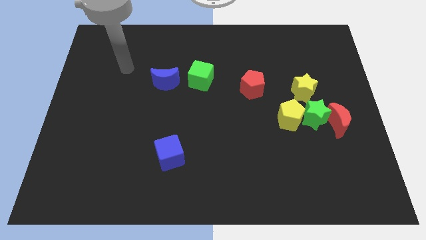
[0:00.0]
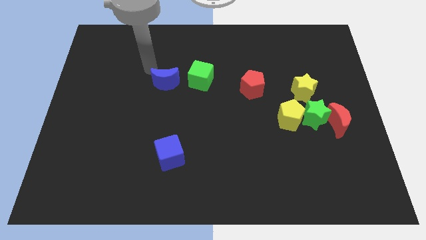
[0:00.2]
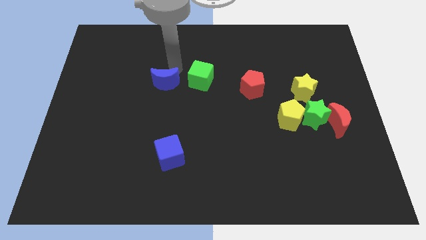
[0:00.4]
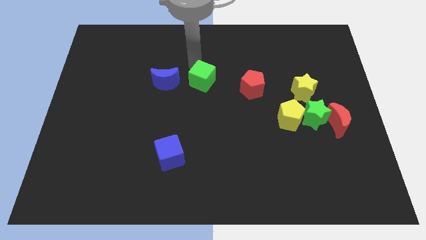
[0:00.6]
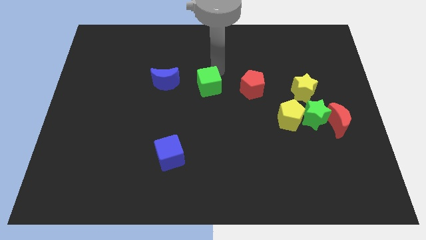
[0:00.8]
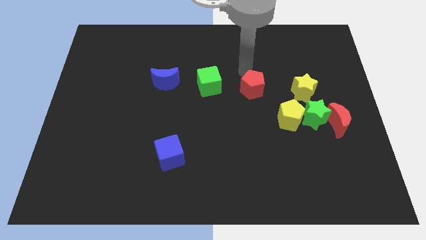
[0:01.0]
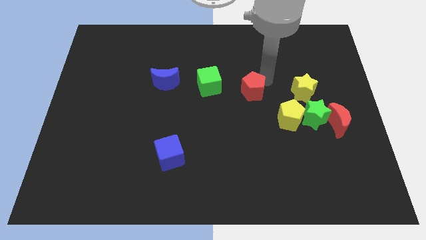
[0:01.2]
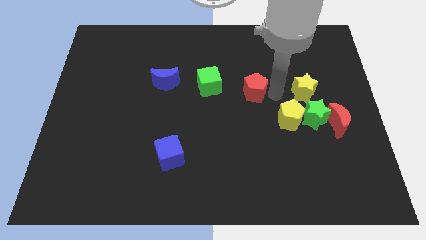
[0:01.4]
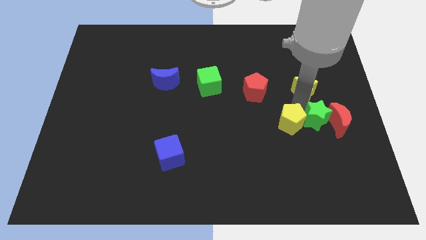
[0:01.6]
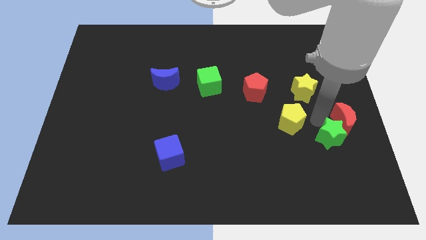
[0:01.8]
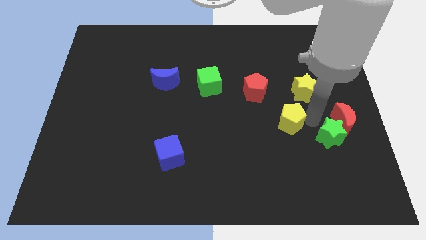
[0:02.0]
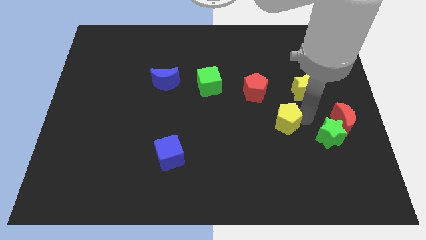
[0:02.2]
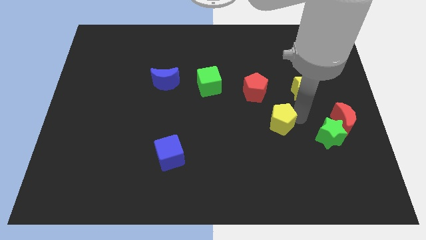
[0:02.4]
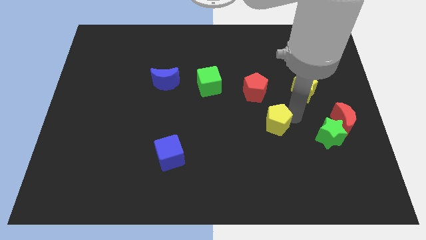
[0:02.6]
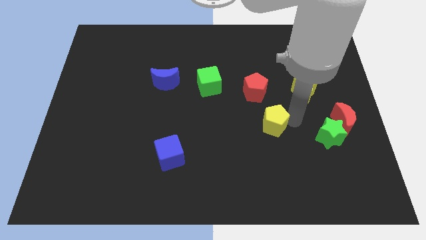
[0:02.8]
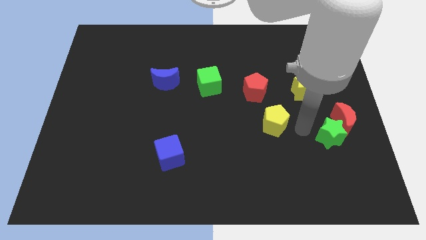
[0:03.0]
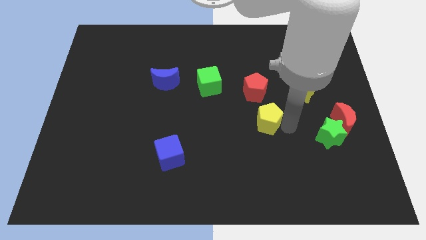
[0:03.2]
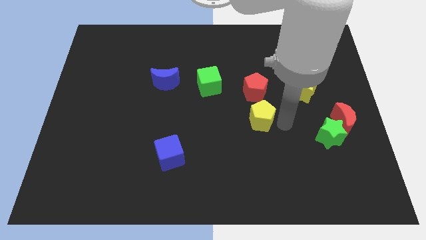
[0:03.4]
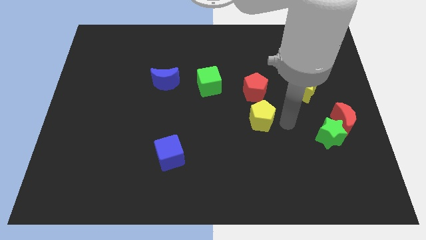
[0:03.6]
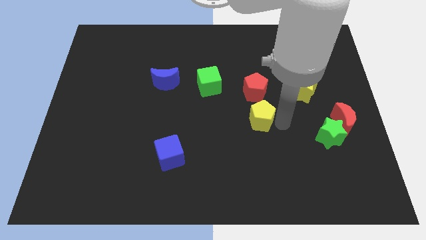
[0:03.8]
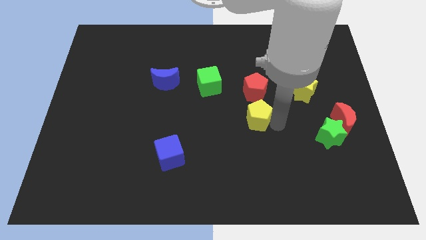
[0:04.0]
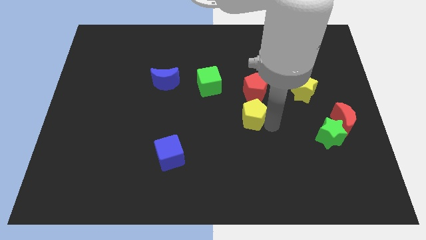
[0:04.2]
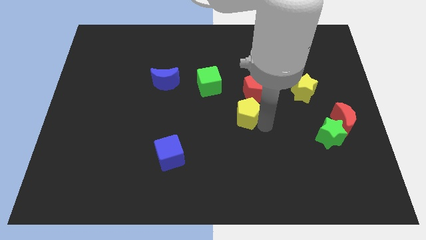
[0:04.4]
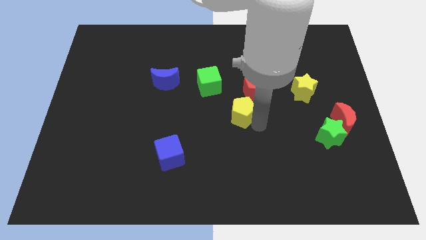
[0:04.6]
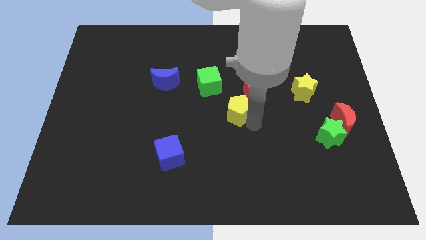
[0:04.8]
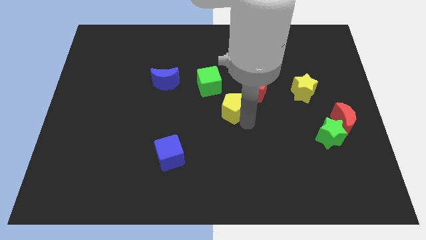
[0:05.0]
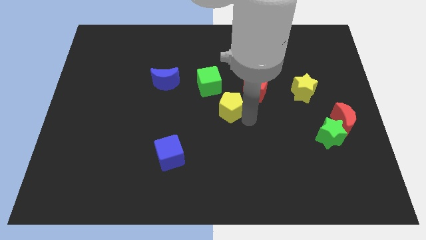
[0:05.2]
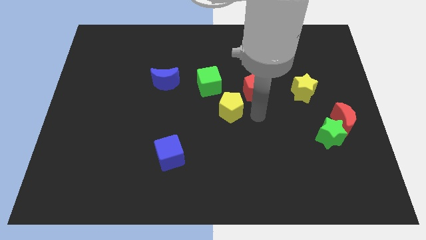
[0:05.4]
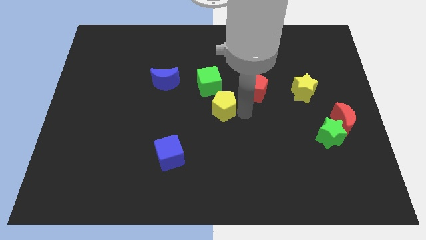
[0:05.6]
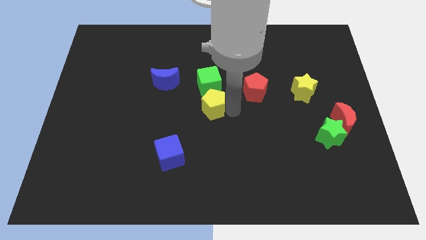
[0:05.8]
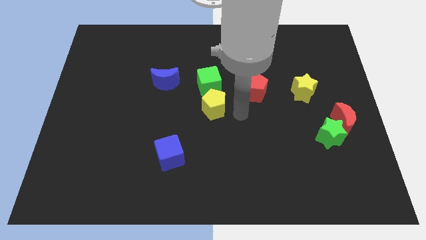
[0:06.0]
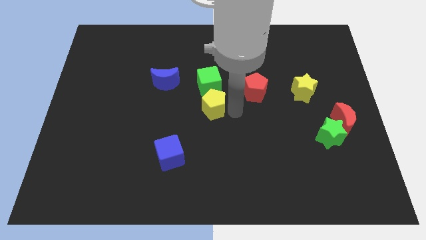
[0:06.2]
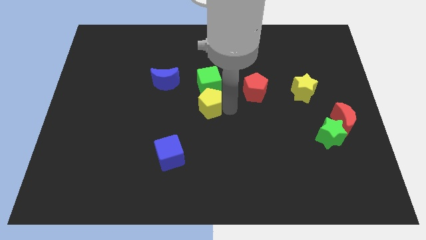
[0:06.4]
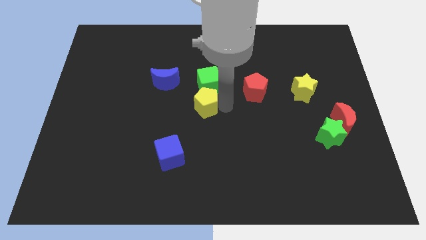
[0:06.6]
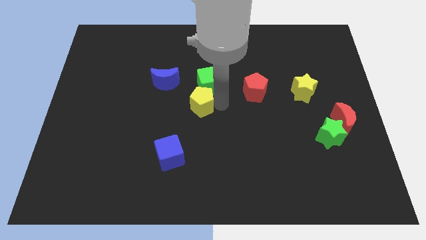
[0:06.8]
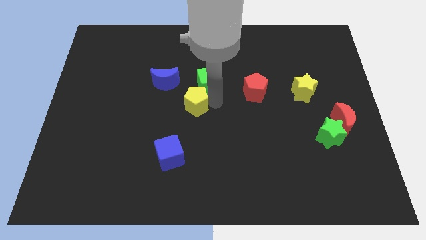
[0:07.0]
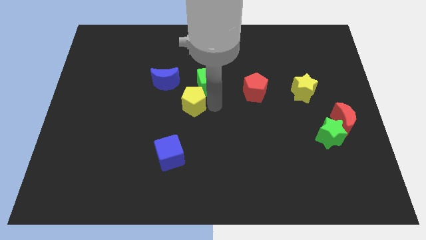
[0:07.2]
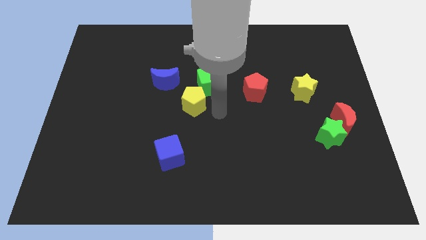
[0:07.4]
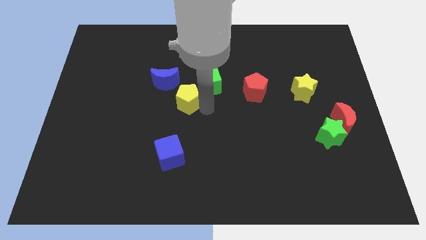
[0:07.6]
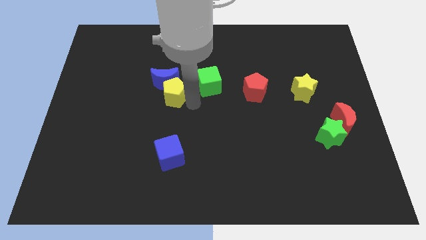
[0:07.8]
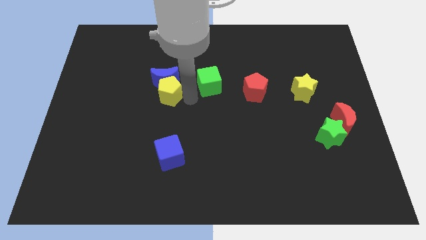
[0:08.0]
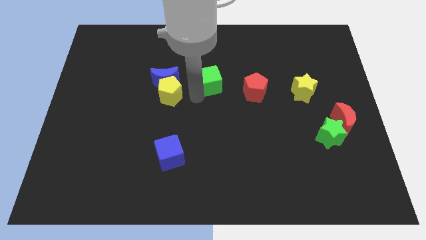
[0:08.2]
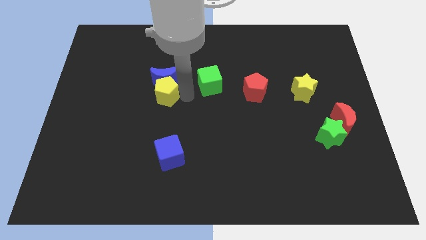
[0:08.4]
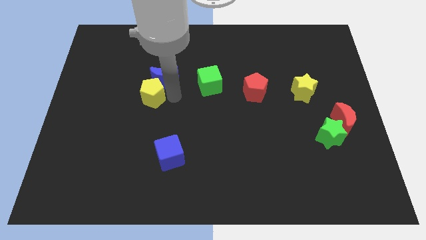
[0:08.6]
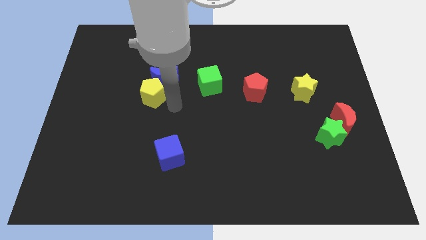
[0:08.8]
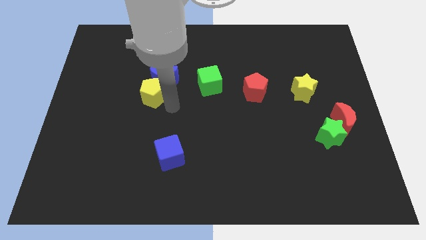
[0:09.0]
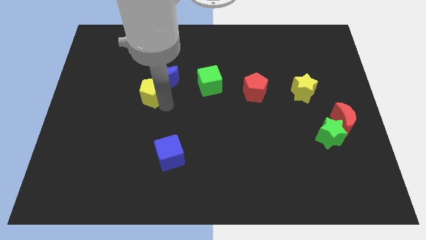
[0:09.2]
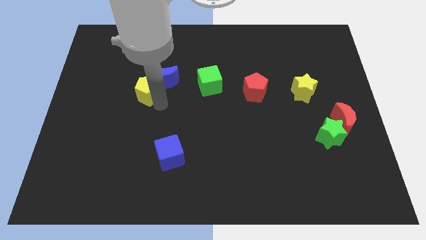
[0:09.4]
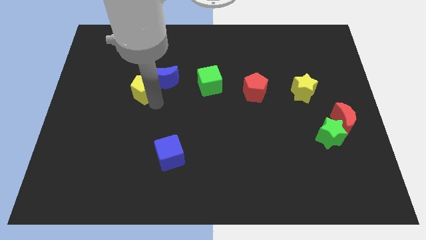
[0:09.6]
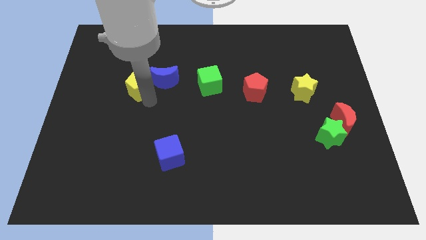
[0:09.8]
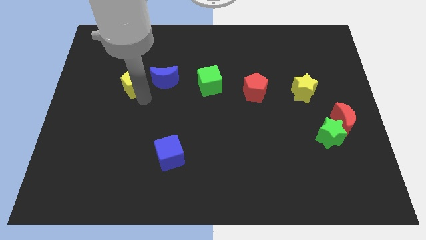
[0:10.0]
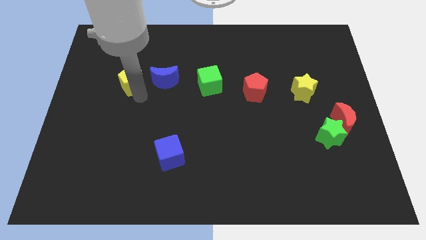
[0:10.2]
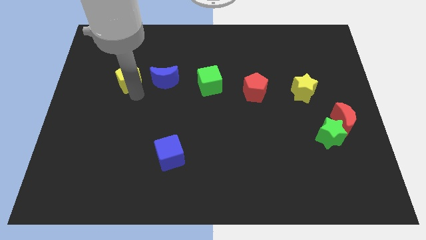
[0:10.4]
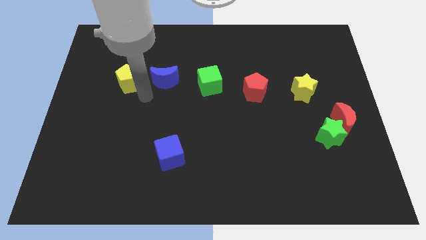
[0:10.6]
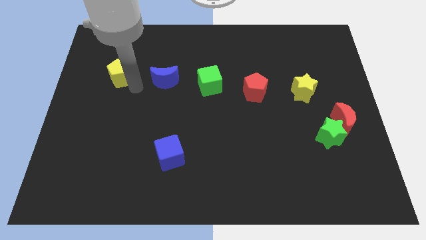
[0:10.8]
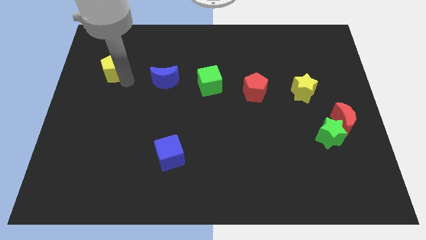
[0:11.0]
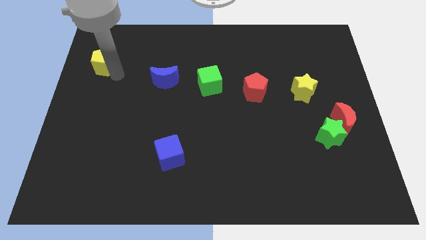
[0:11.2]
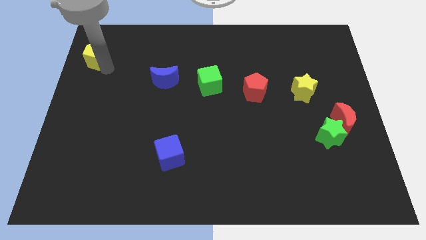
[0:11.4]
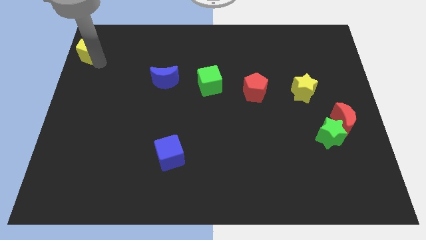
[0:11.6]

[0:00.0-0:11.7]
put the yellow pentagon to the top left corner

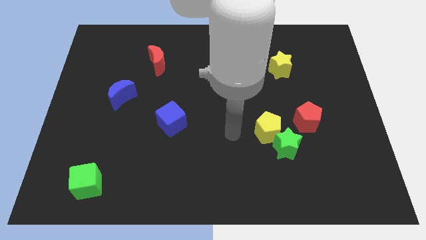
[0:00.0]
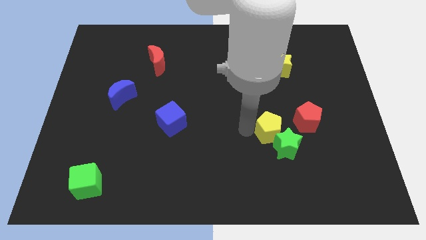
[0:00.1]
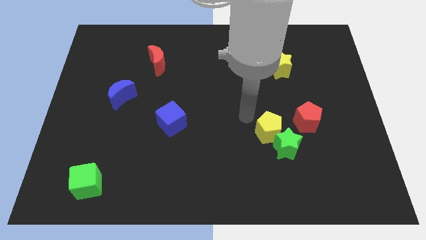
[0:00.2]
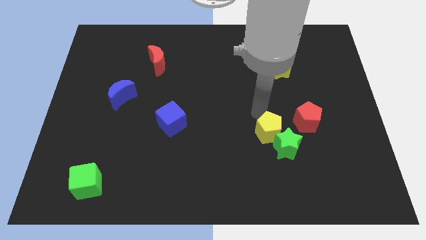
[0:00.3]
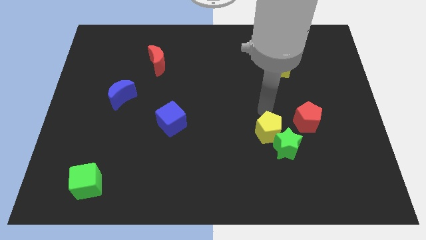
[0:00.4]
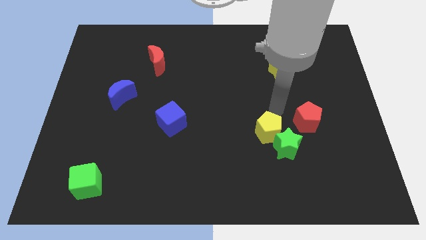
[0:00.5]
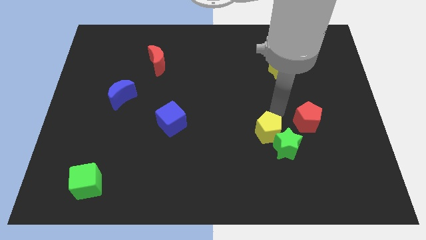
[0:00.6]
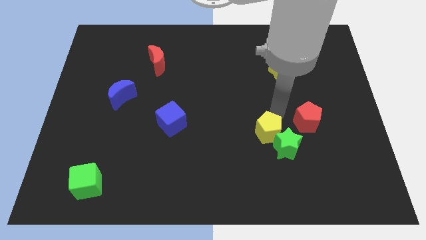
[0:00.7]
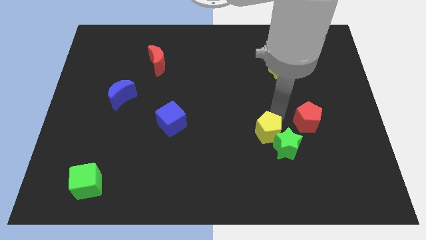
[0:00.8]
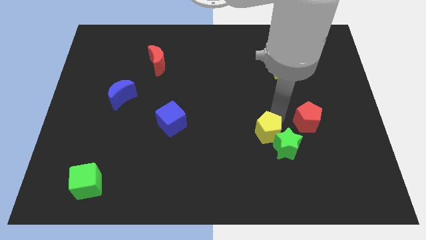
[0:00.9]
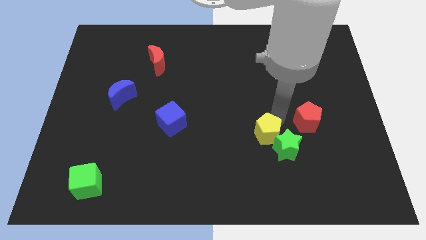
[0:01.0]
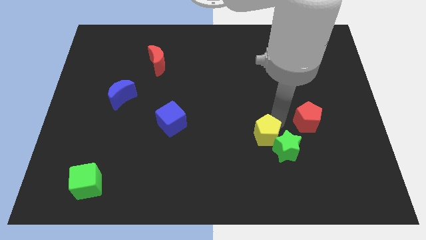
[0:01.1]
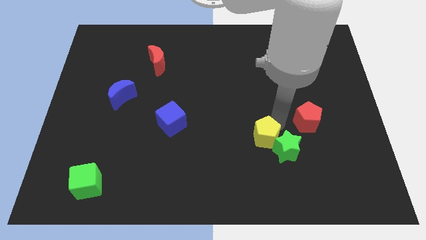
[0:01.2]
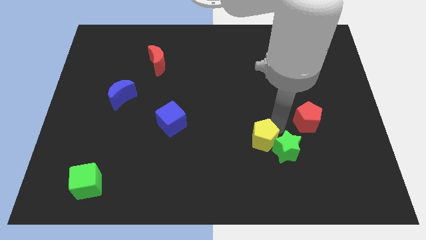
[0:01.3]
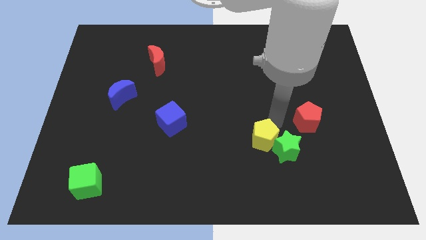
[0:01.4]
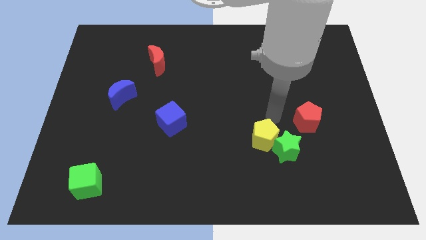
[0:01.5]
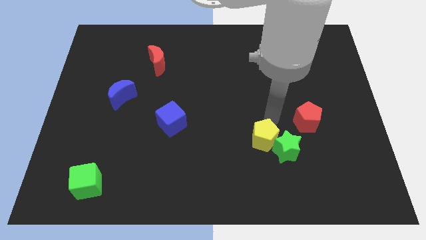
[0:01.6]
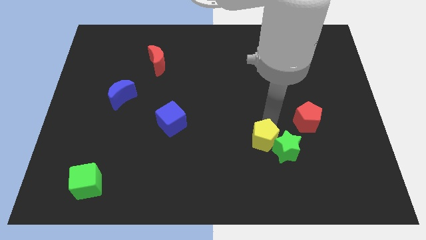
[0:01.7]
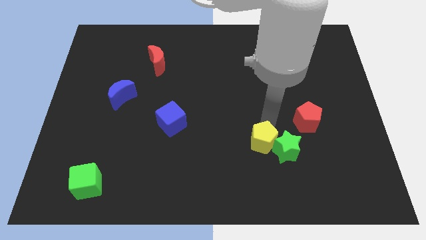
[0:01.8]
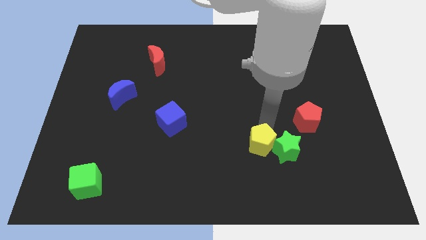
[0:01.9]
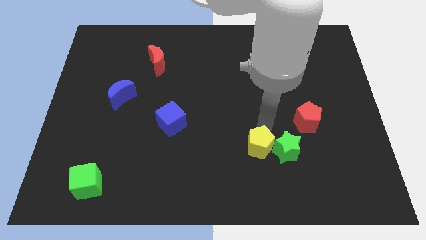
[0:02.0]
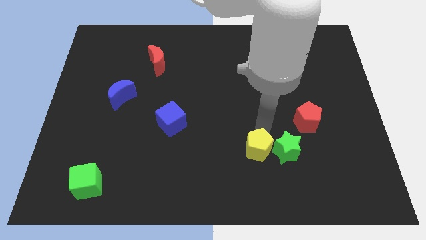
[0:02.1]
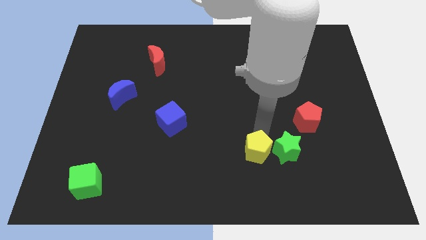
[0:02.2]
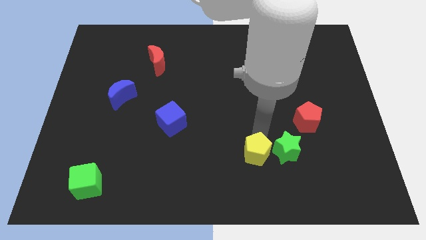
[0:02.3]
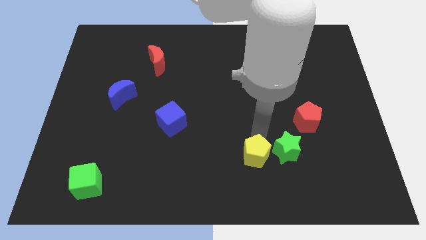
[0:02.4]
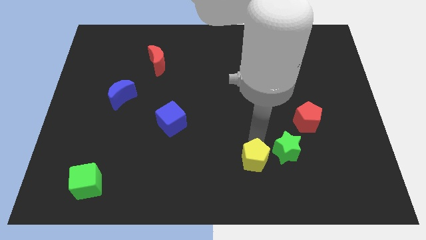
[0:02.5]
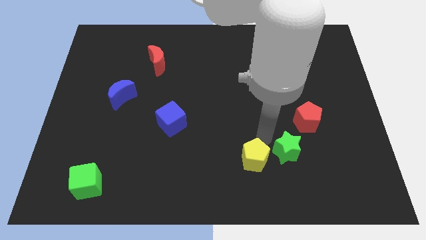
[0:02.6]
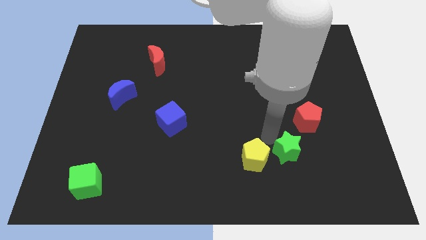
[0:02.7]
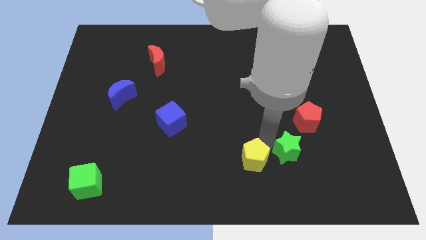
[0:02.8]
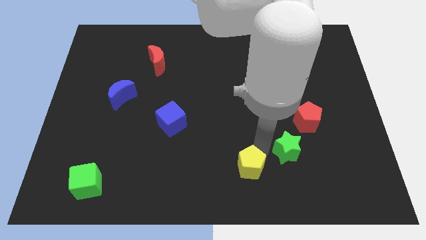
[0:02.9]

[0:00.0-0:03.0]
move the yellow pentagon to the bottom
